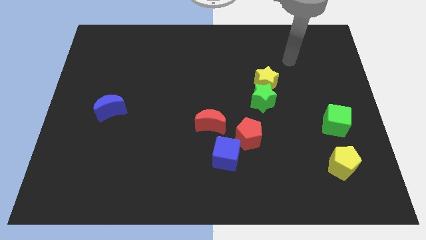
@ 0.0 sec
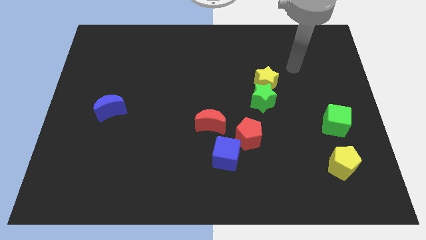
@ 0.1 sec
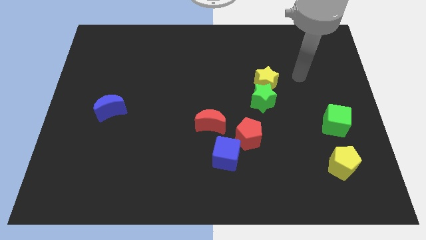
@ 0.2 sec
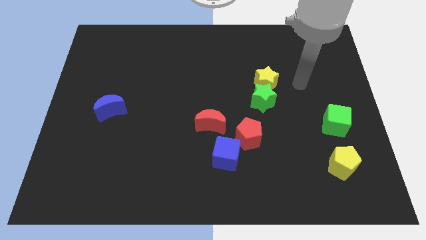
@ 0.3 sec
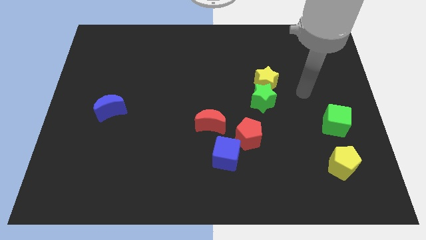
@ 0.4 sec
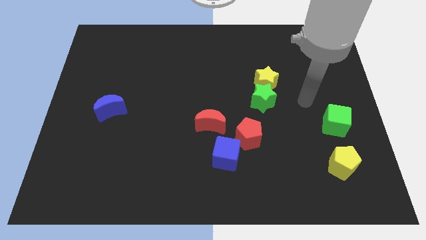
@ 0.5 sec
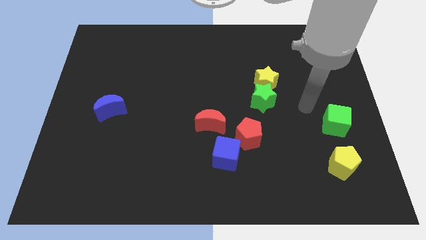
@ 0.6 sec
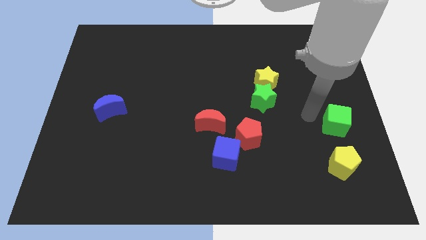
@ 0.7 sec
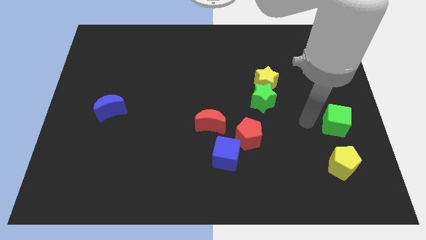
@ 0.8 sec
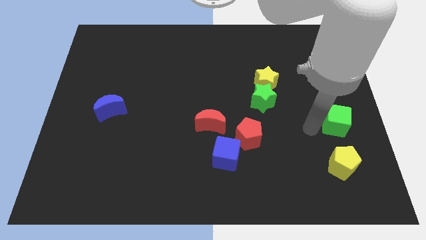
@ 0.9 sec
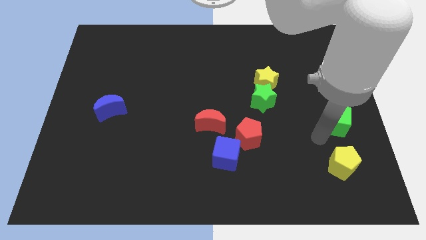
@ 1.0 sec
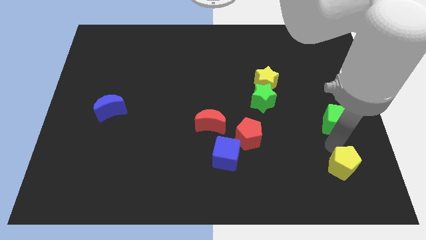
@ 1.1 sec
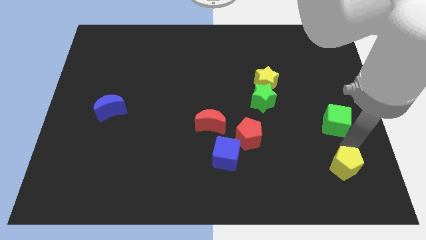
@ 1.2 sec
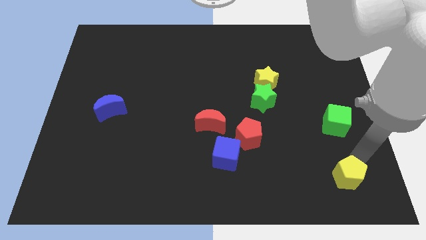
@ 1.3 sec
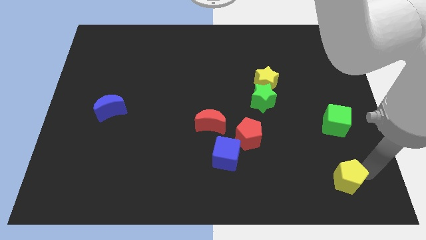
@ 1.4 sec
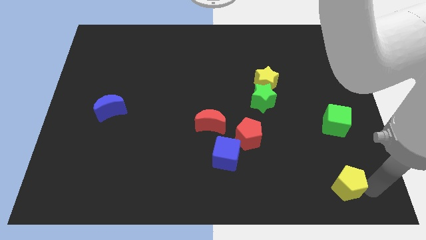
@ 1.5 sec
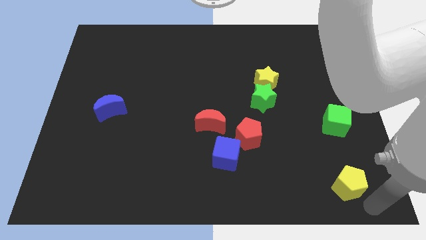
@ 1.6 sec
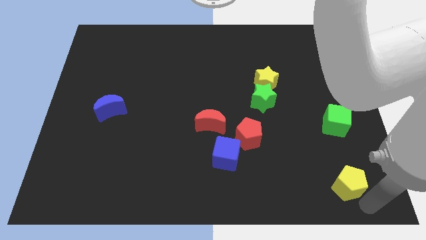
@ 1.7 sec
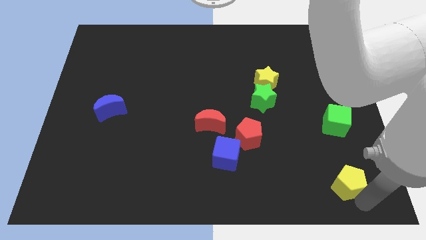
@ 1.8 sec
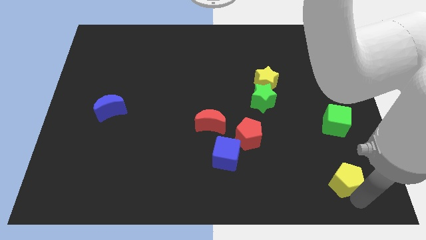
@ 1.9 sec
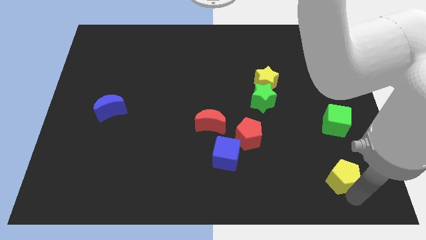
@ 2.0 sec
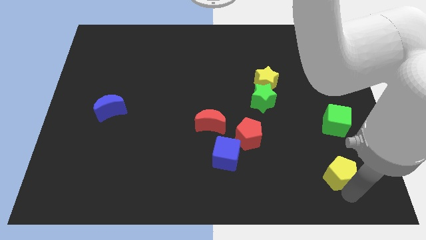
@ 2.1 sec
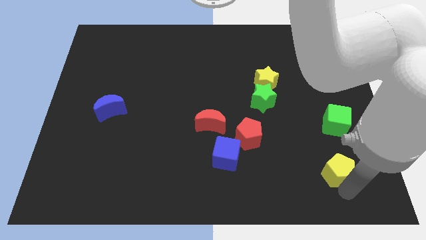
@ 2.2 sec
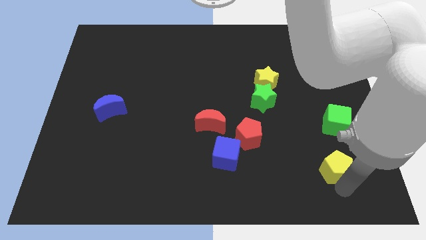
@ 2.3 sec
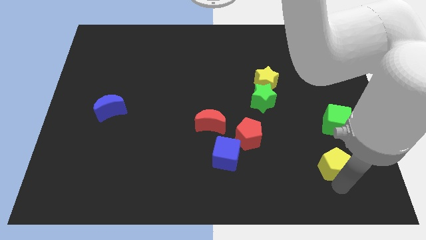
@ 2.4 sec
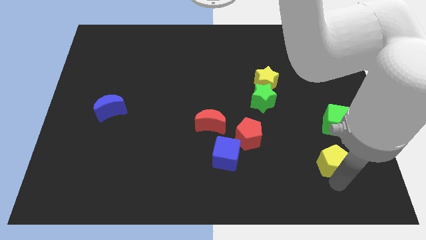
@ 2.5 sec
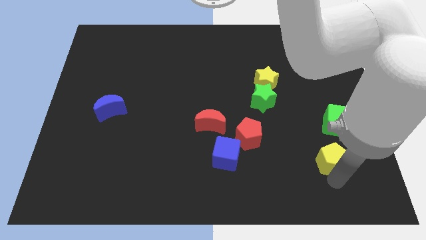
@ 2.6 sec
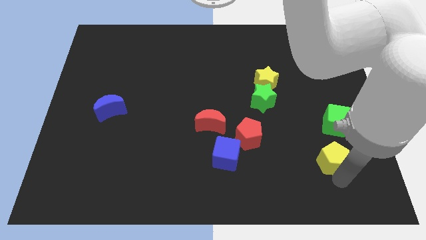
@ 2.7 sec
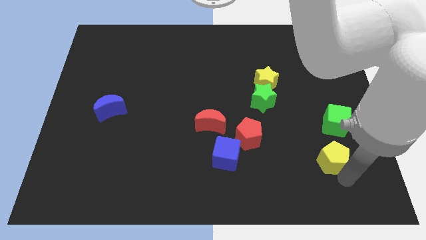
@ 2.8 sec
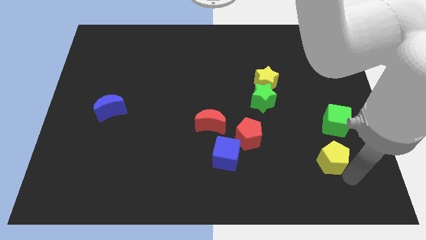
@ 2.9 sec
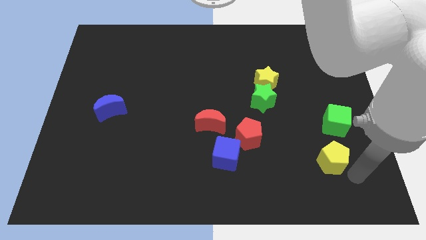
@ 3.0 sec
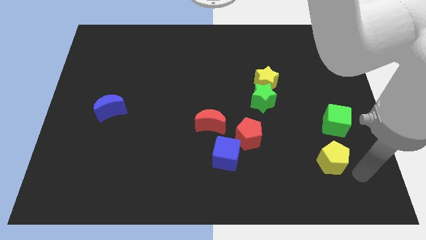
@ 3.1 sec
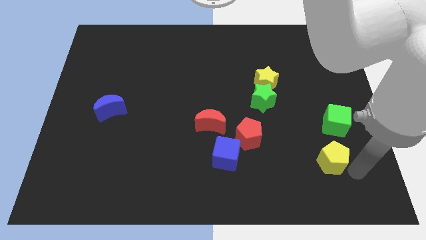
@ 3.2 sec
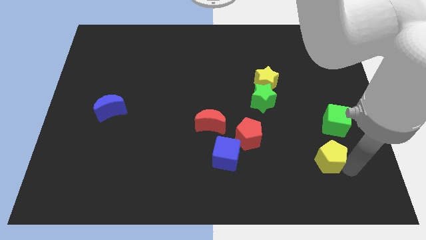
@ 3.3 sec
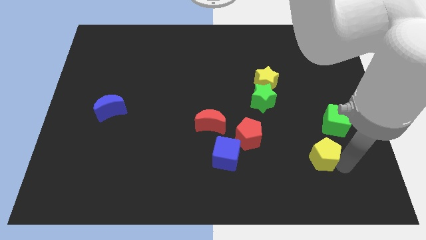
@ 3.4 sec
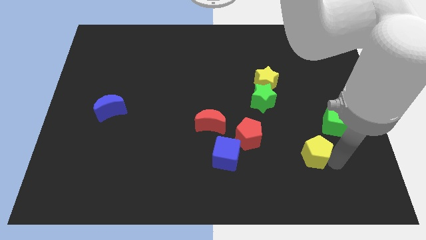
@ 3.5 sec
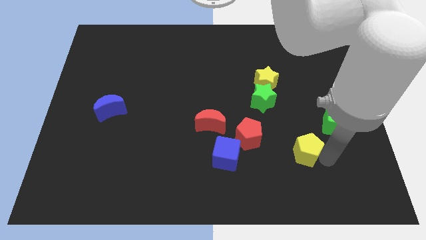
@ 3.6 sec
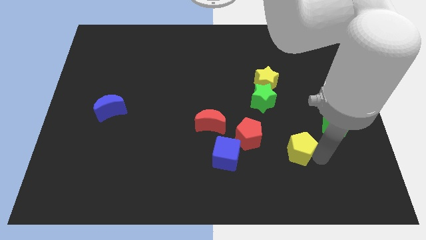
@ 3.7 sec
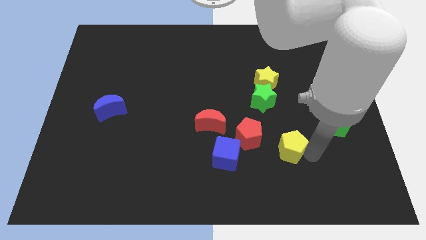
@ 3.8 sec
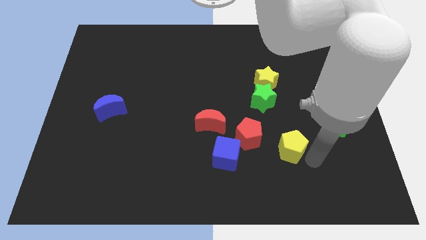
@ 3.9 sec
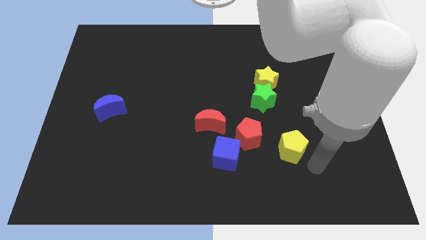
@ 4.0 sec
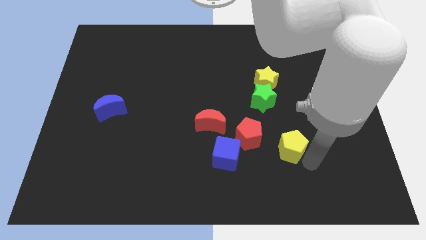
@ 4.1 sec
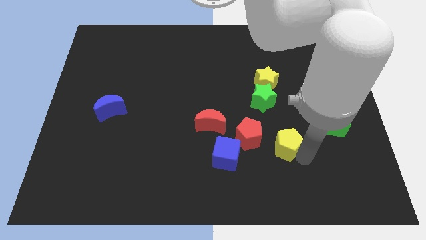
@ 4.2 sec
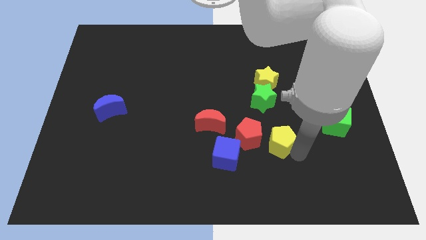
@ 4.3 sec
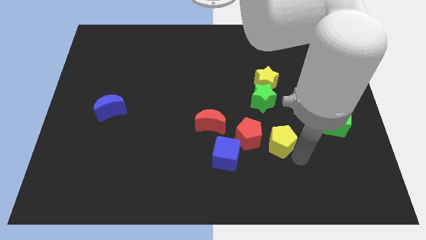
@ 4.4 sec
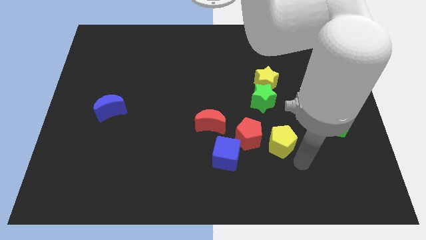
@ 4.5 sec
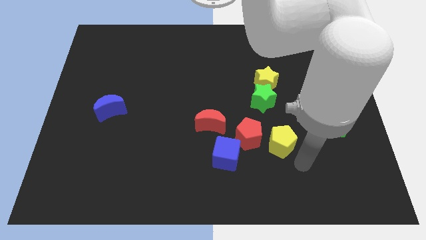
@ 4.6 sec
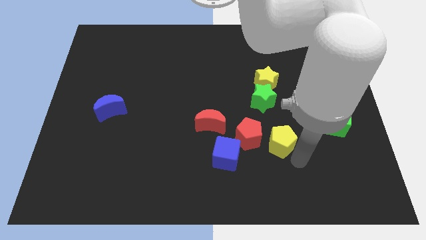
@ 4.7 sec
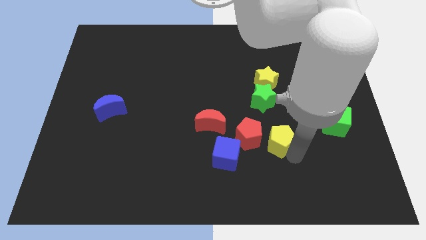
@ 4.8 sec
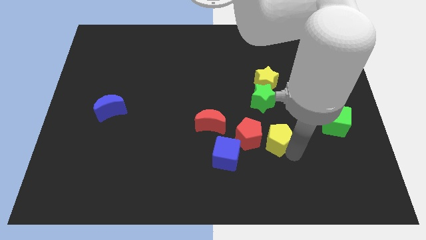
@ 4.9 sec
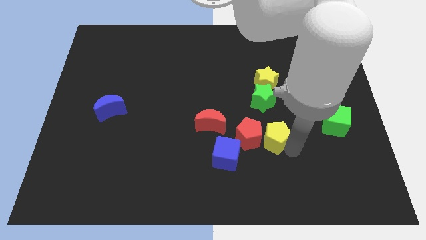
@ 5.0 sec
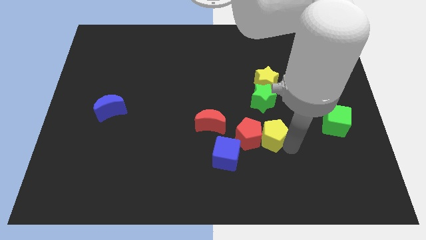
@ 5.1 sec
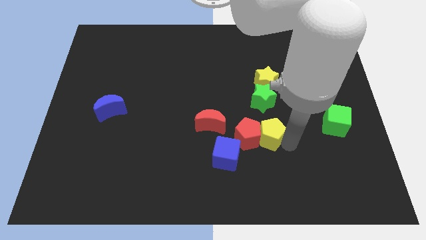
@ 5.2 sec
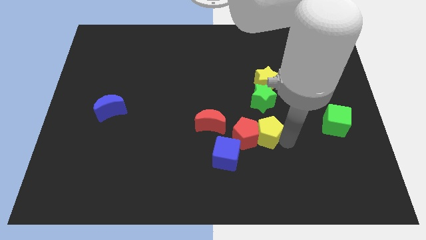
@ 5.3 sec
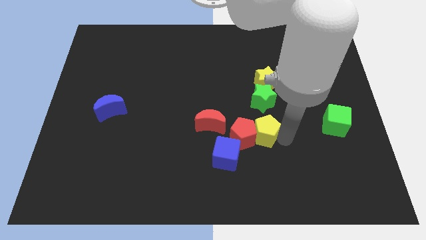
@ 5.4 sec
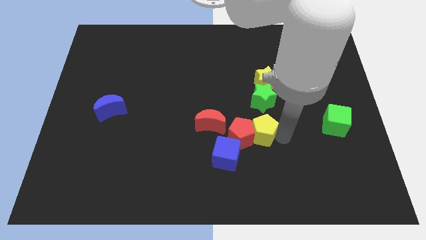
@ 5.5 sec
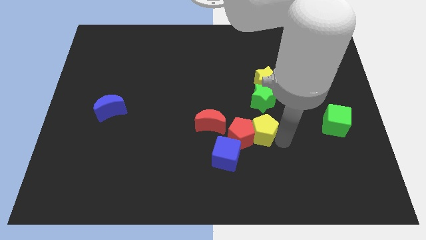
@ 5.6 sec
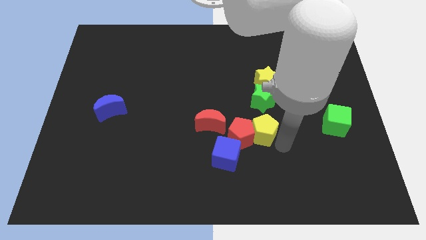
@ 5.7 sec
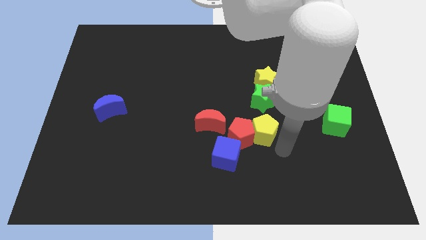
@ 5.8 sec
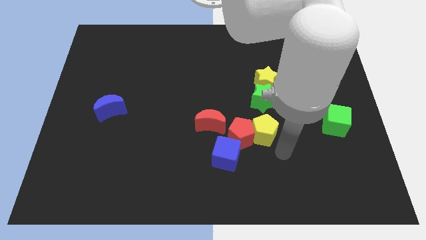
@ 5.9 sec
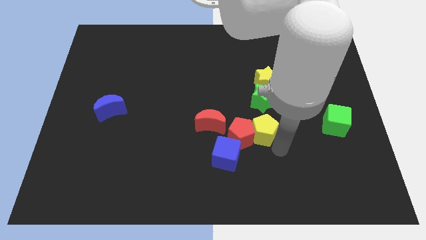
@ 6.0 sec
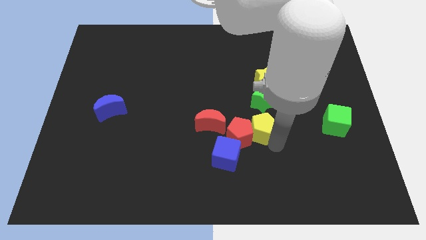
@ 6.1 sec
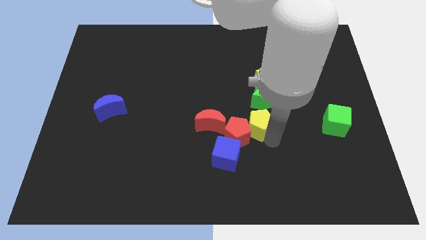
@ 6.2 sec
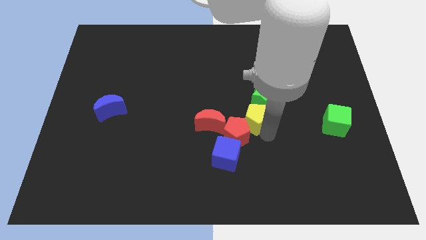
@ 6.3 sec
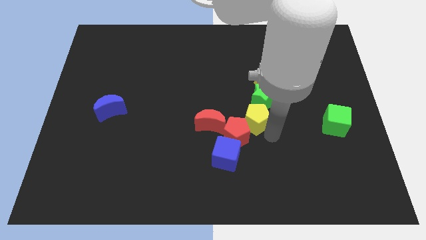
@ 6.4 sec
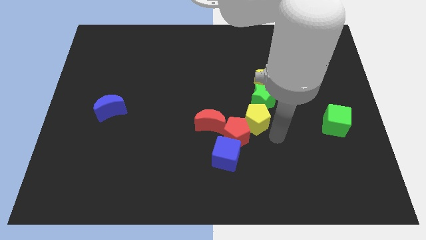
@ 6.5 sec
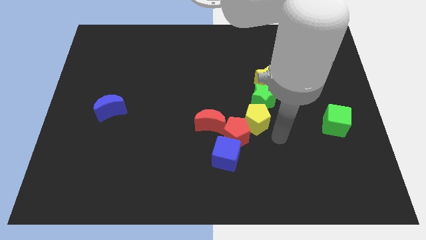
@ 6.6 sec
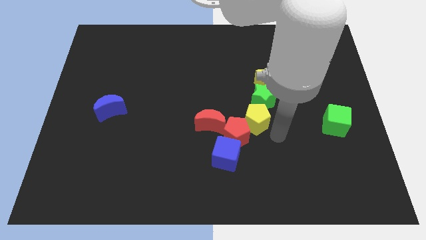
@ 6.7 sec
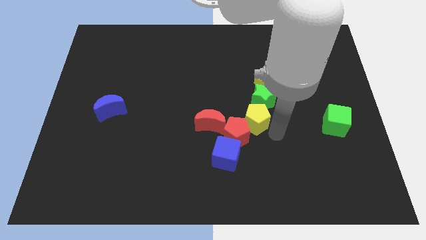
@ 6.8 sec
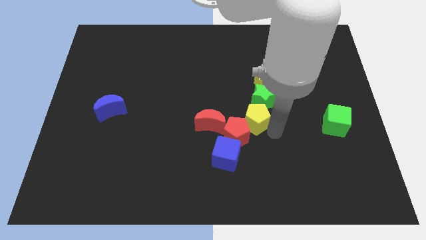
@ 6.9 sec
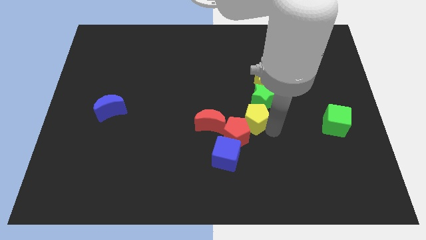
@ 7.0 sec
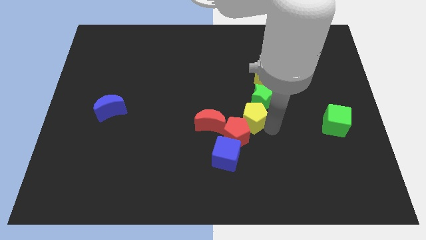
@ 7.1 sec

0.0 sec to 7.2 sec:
push the yellow pentagon upwards and left

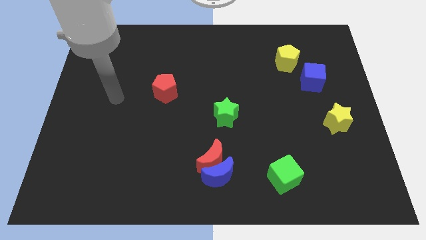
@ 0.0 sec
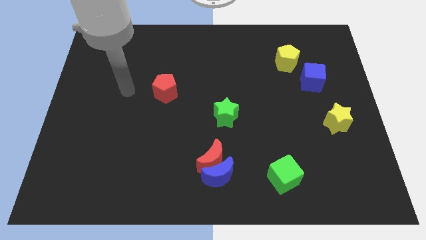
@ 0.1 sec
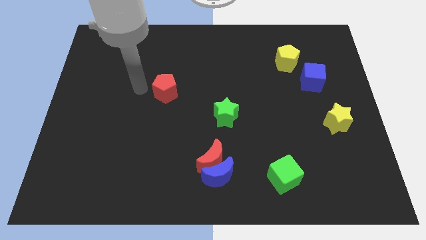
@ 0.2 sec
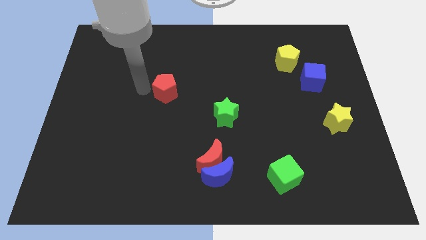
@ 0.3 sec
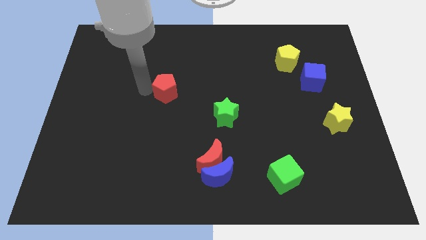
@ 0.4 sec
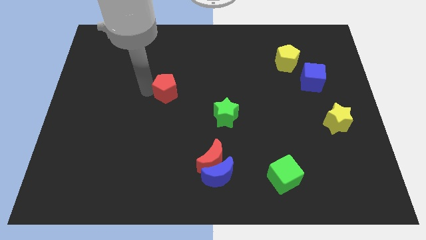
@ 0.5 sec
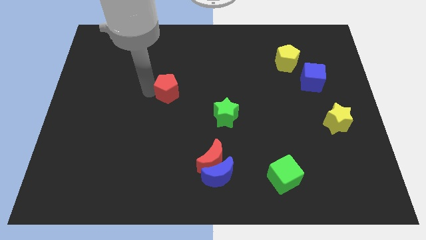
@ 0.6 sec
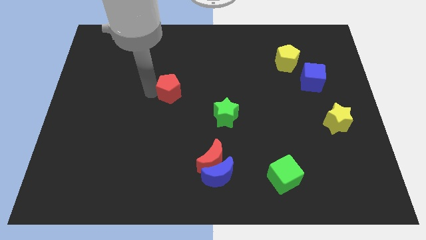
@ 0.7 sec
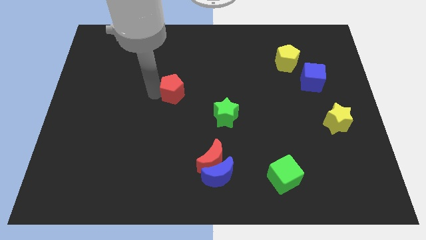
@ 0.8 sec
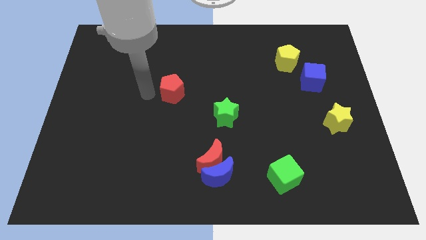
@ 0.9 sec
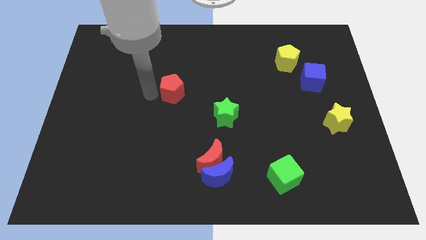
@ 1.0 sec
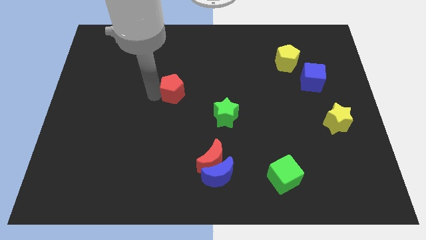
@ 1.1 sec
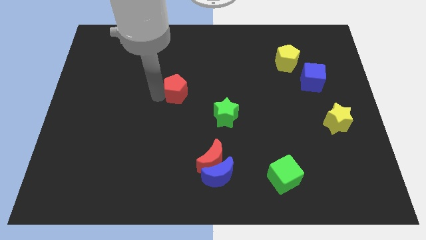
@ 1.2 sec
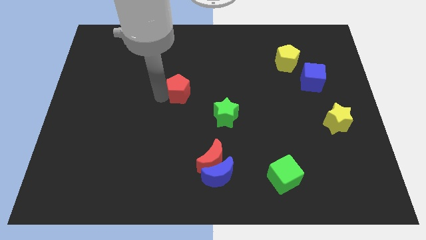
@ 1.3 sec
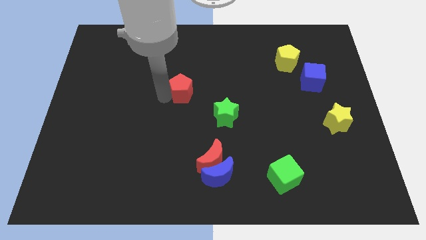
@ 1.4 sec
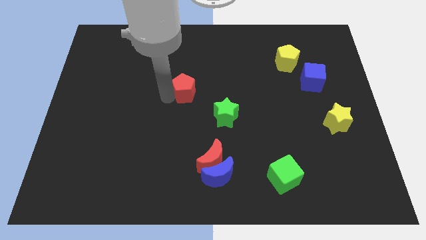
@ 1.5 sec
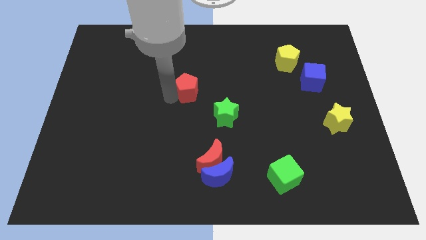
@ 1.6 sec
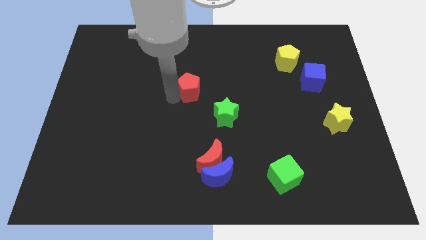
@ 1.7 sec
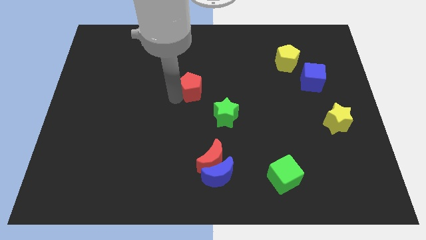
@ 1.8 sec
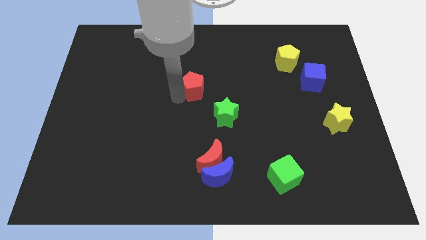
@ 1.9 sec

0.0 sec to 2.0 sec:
push the red pentagon a bit to the right
